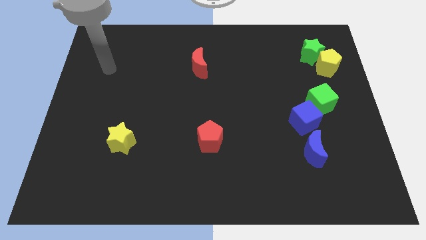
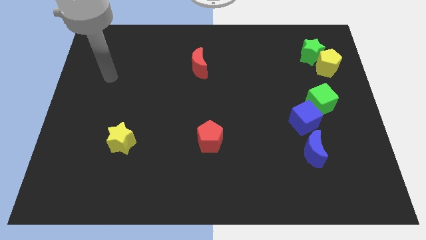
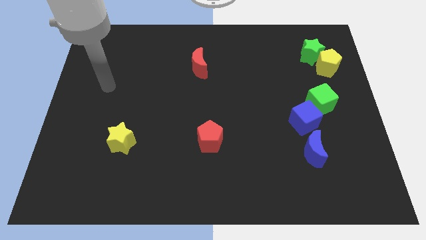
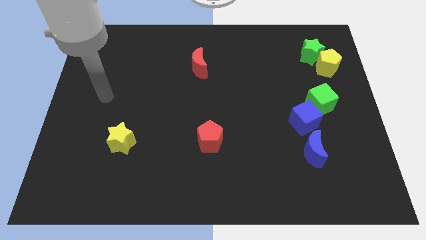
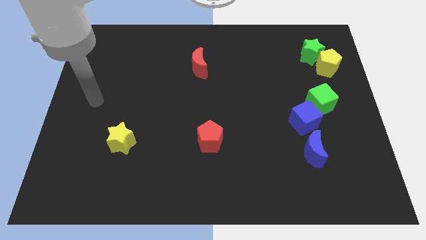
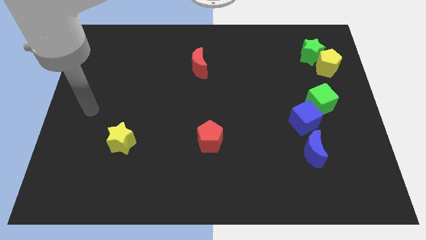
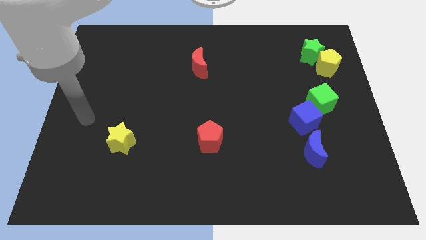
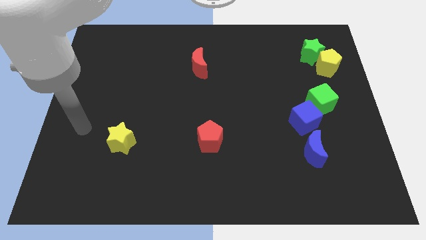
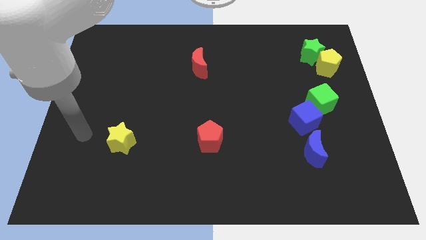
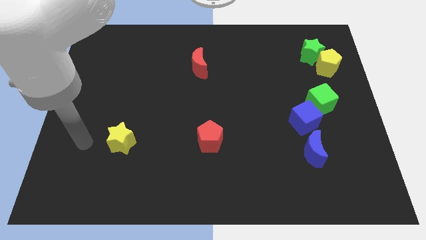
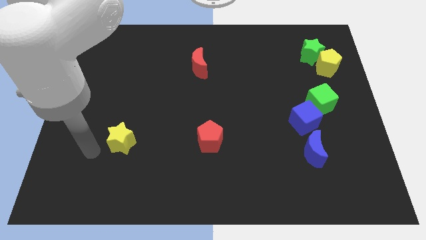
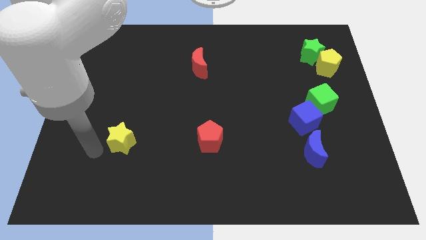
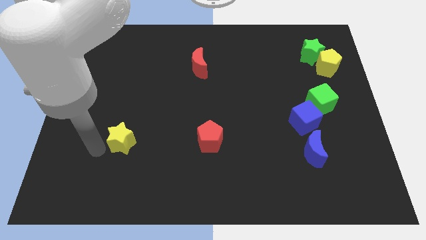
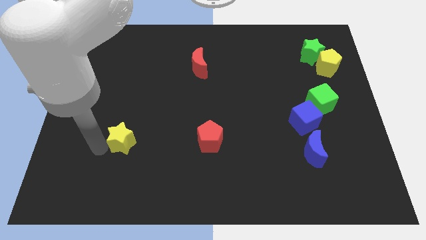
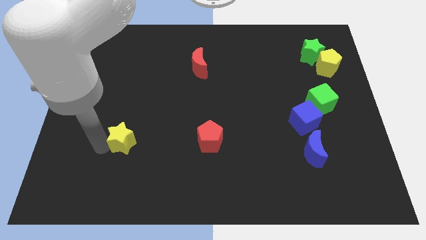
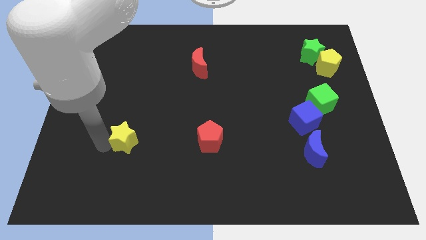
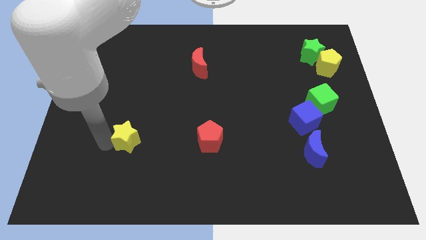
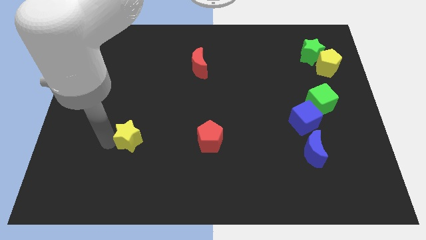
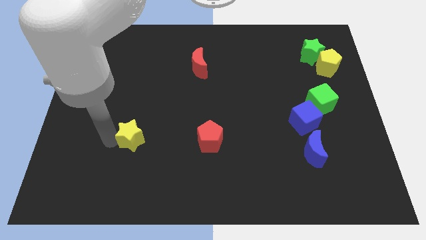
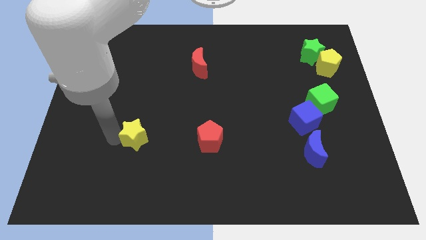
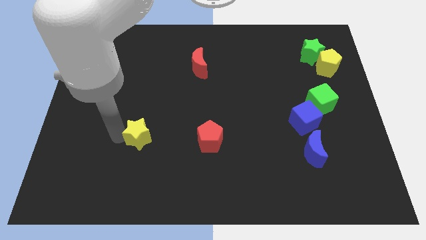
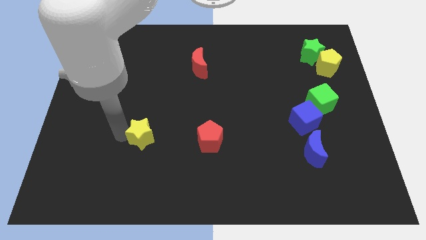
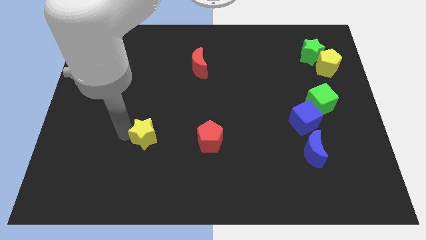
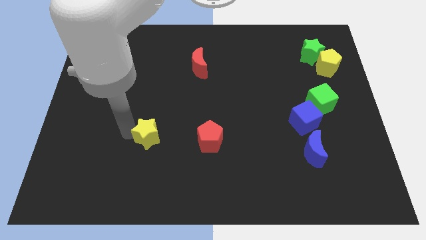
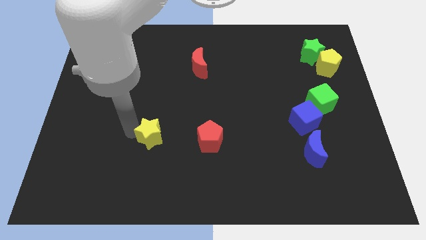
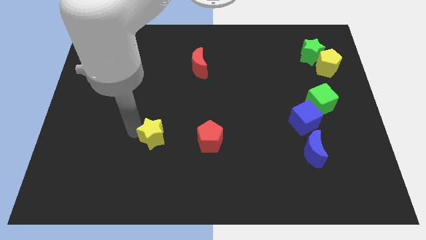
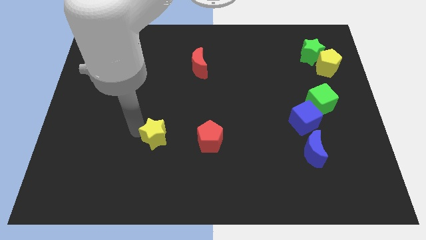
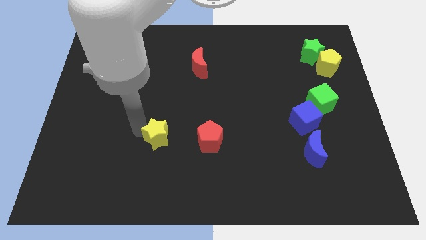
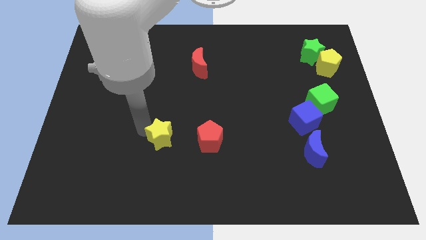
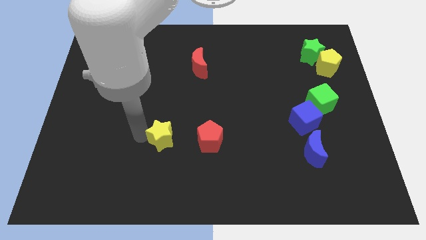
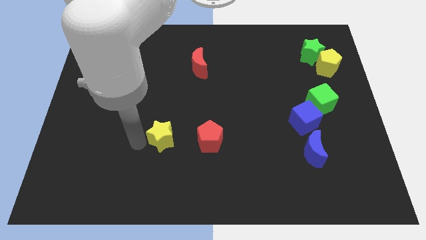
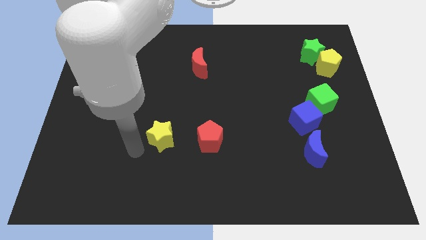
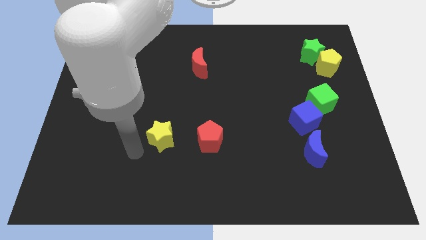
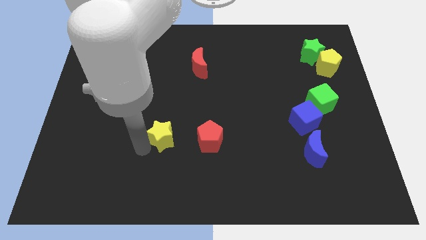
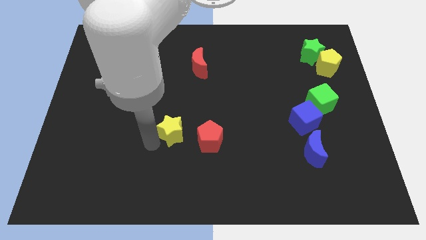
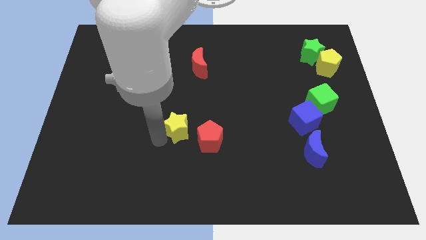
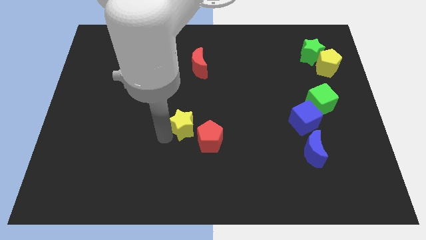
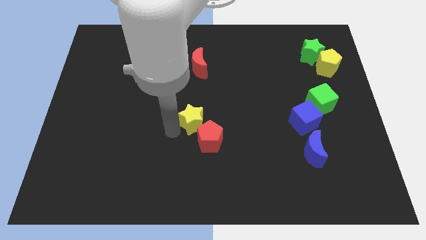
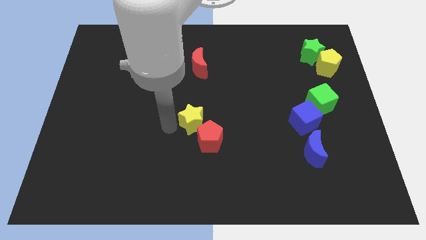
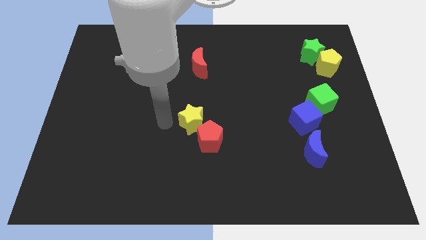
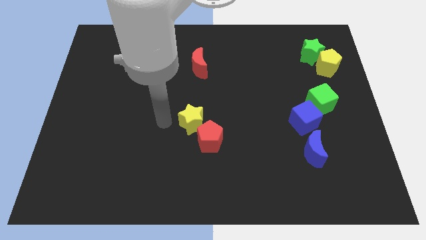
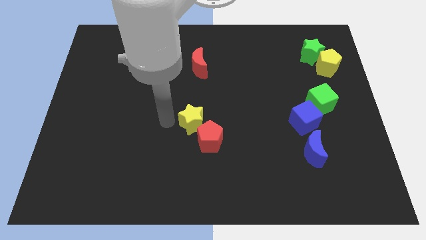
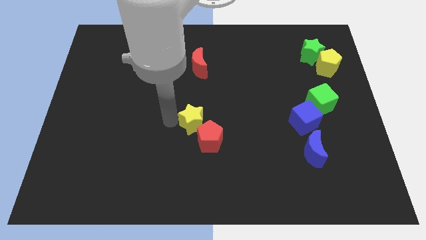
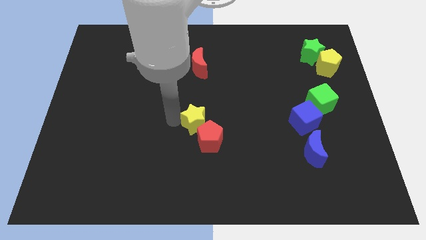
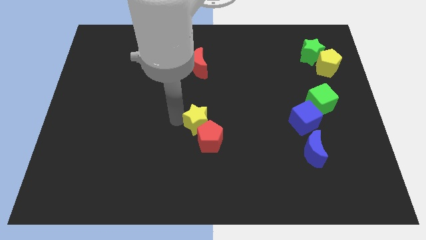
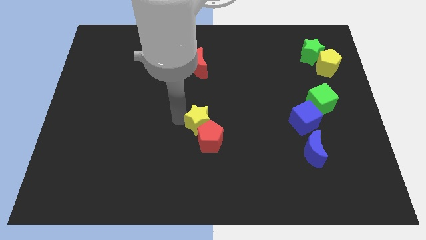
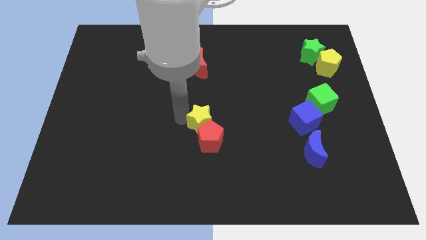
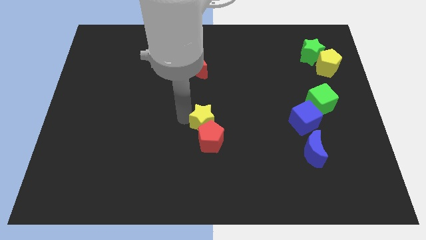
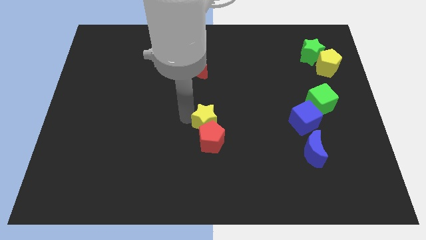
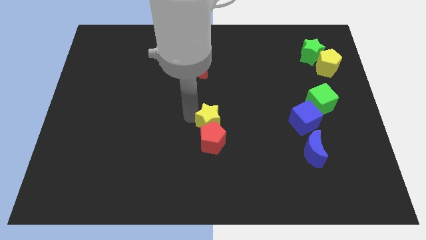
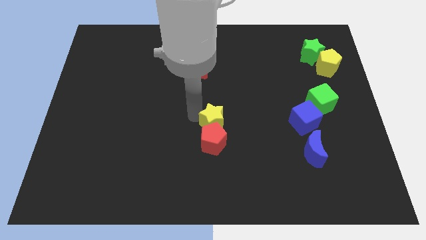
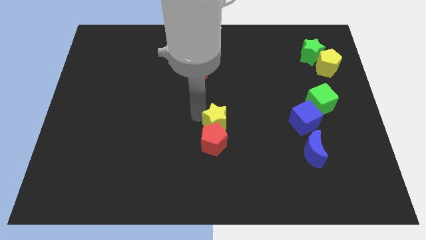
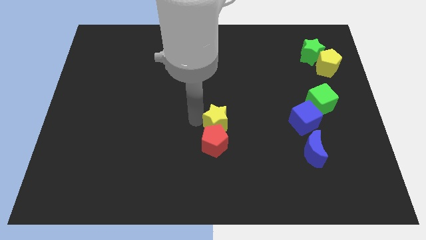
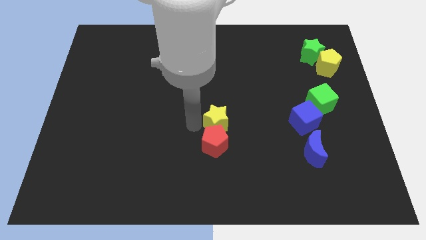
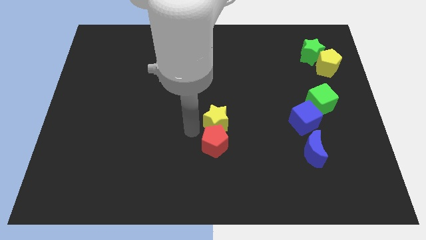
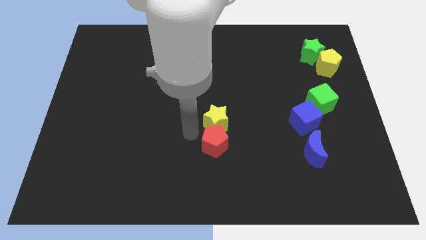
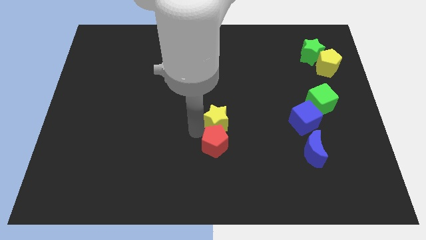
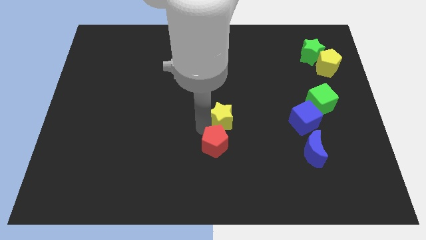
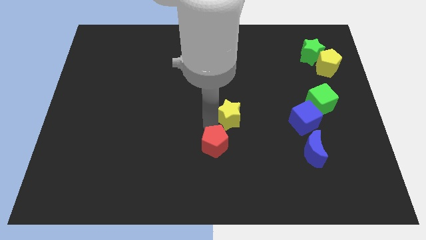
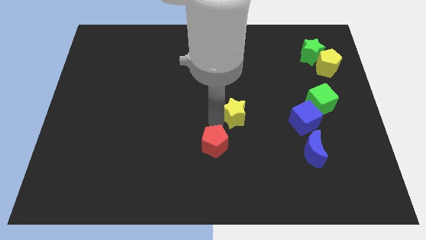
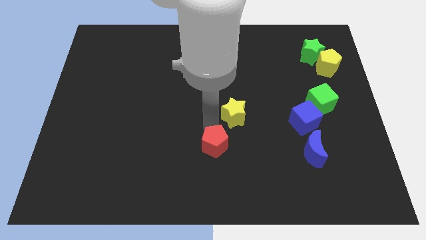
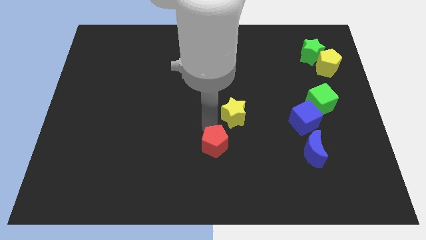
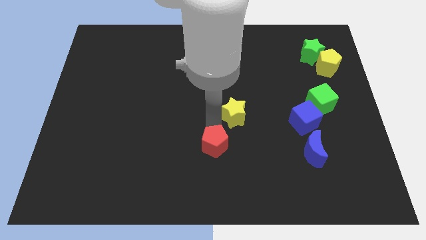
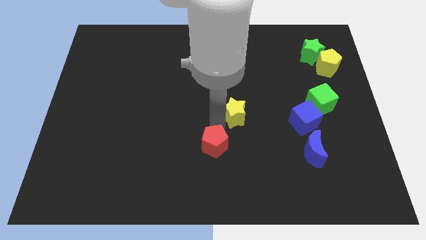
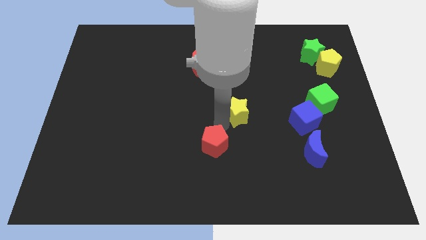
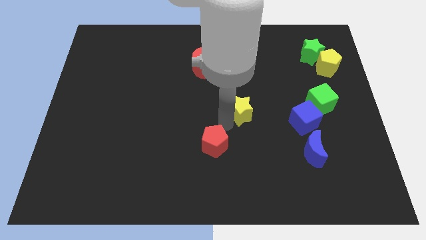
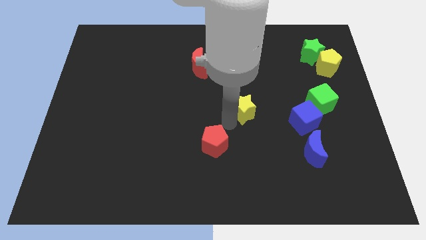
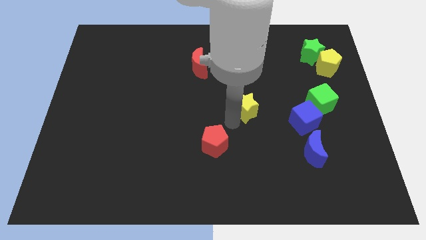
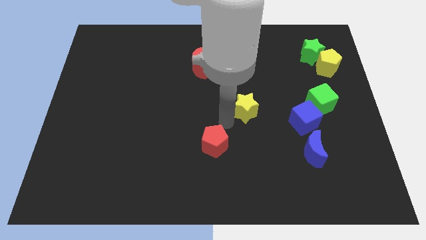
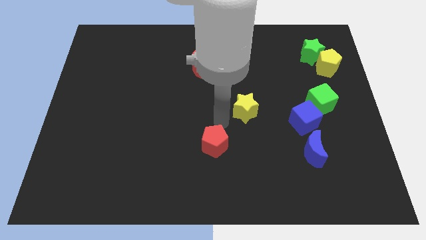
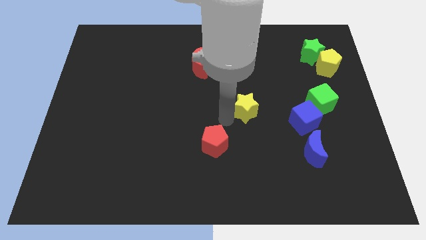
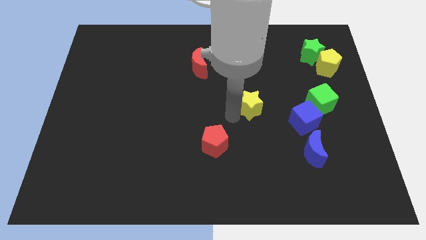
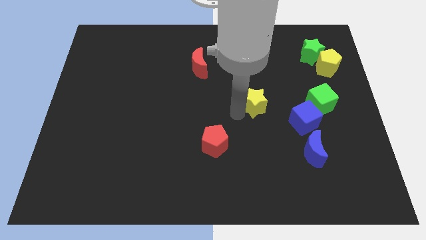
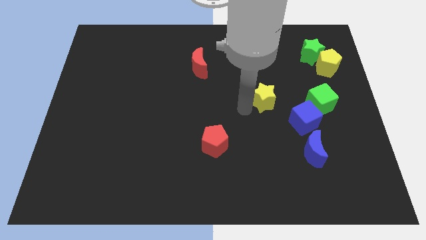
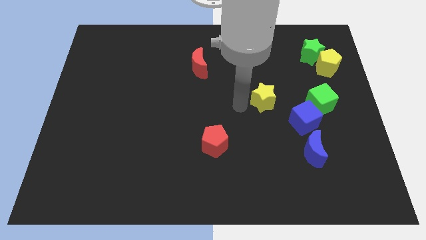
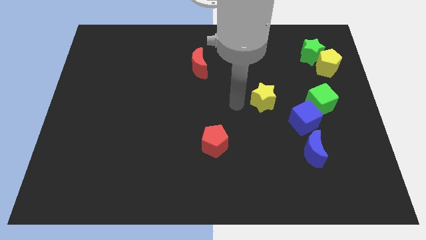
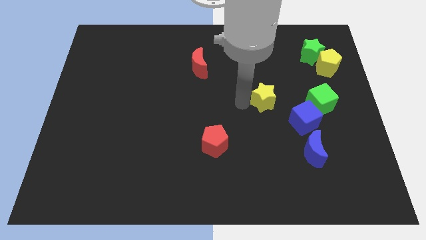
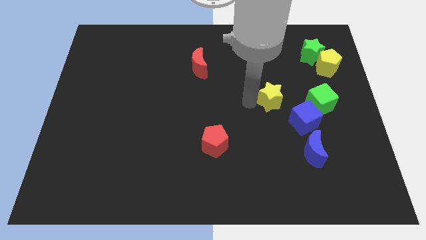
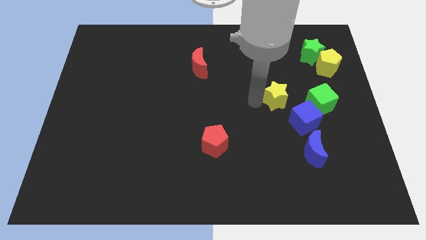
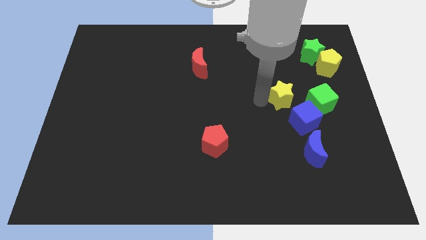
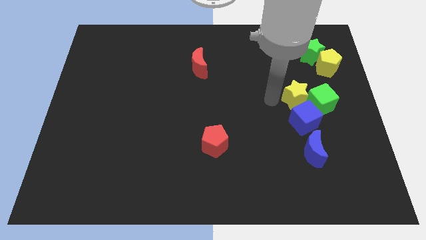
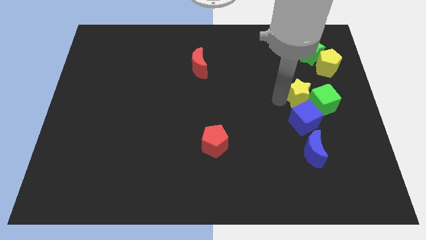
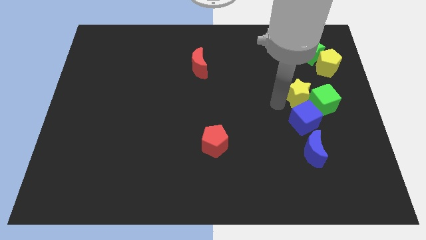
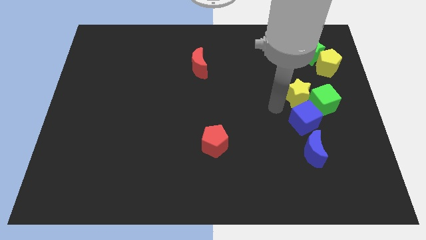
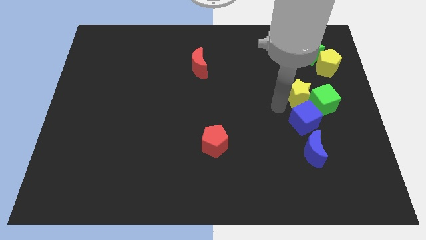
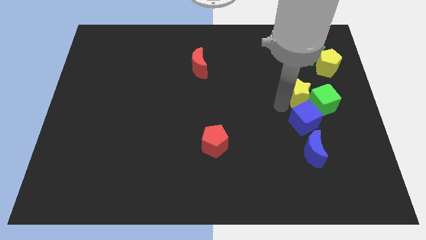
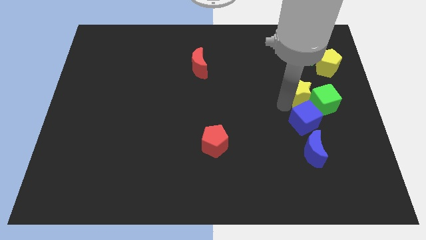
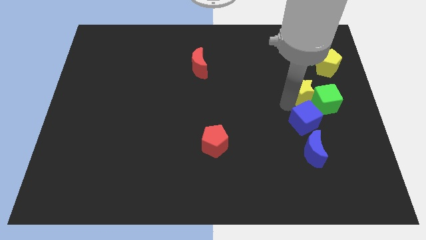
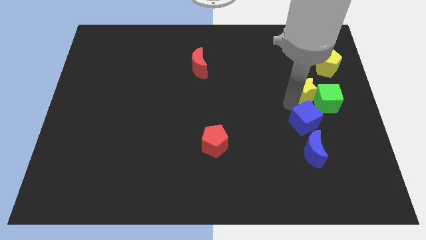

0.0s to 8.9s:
slide the yellow star below the green star
